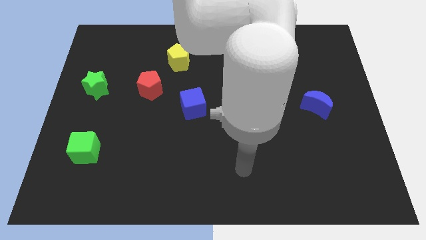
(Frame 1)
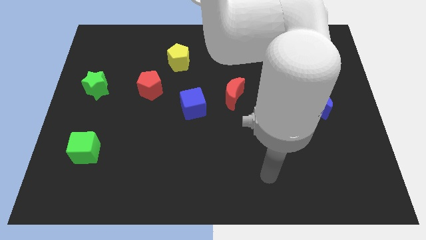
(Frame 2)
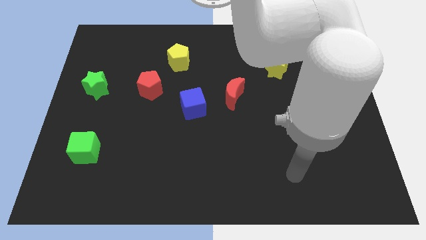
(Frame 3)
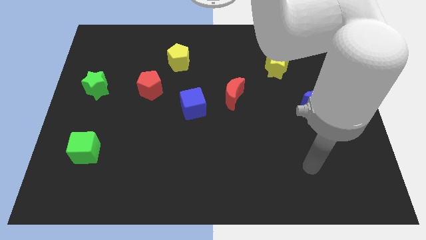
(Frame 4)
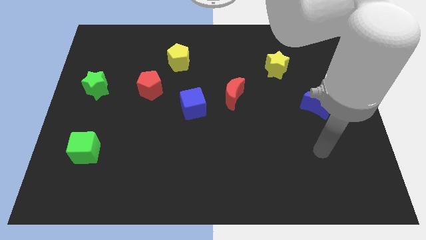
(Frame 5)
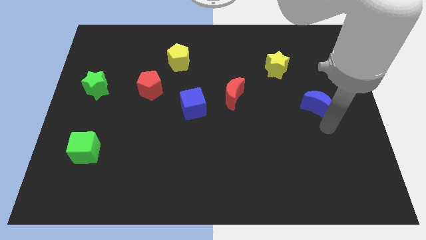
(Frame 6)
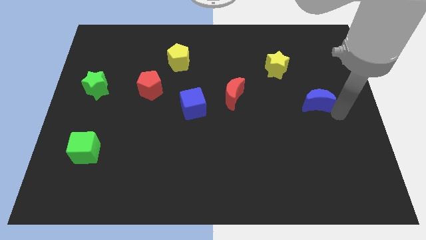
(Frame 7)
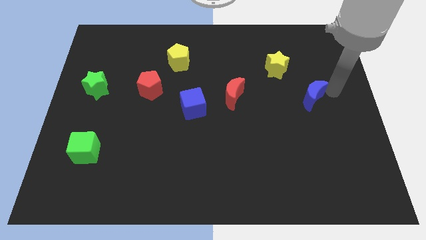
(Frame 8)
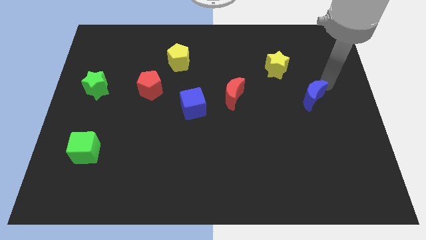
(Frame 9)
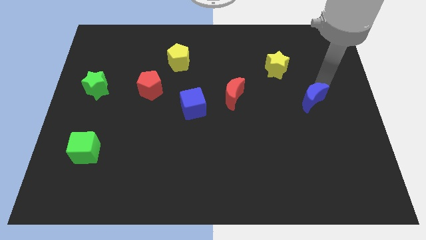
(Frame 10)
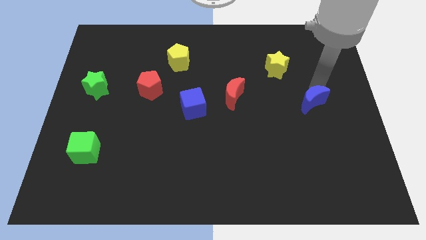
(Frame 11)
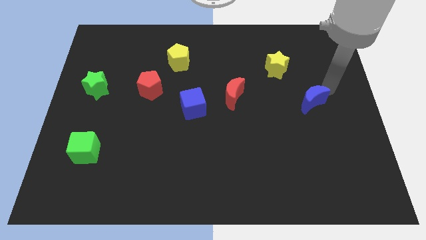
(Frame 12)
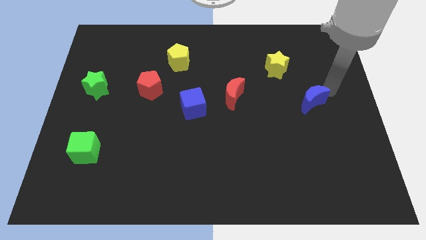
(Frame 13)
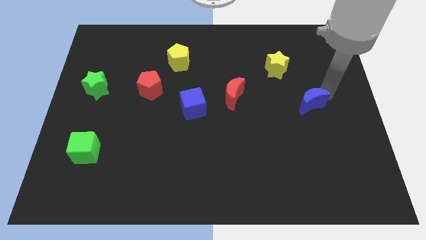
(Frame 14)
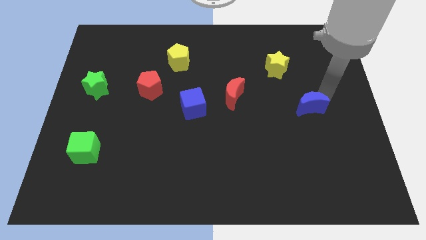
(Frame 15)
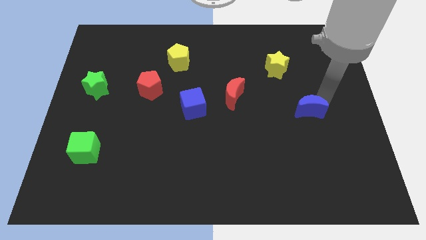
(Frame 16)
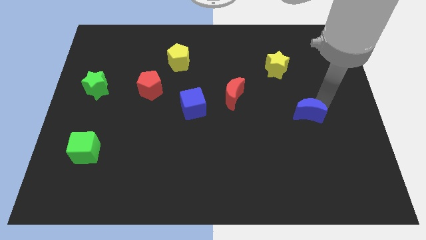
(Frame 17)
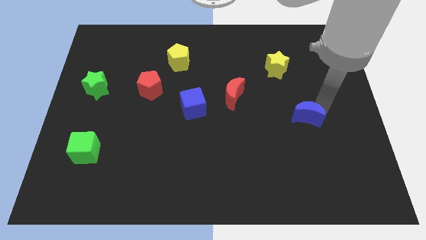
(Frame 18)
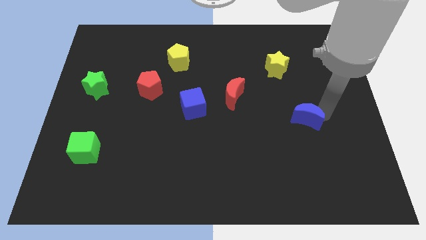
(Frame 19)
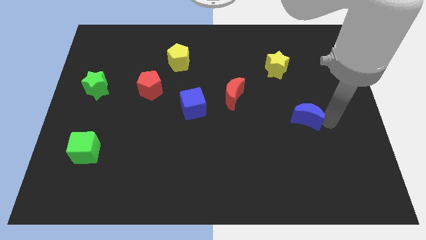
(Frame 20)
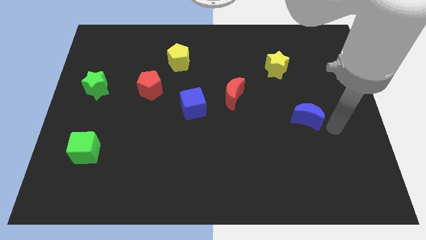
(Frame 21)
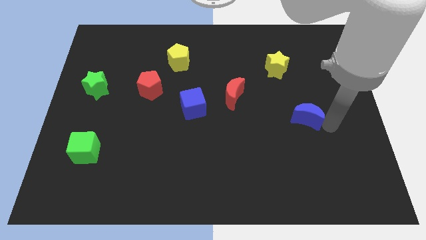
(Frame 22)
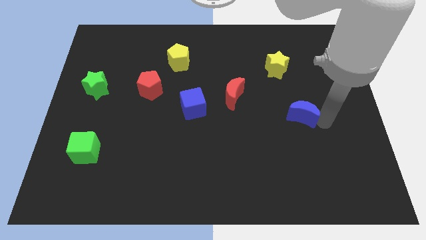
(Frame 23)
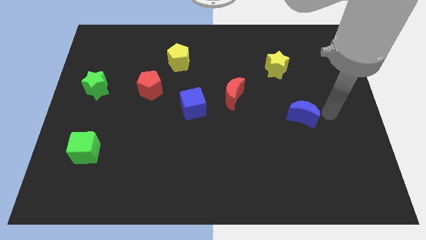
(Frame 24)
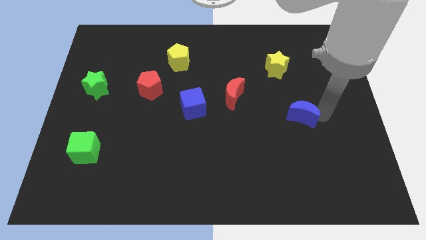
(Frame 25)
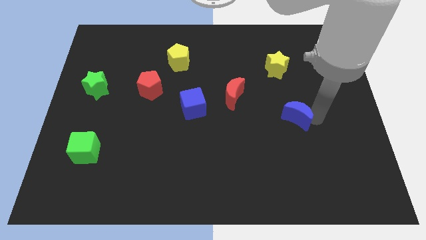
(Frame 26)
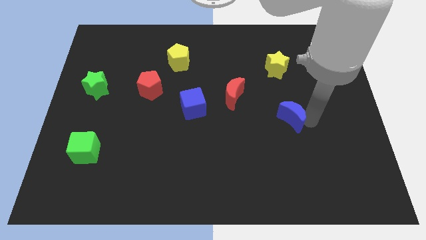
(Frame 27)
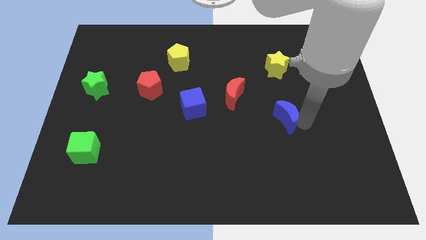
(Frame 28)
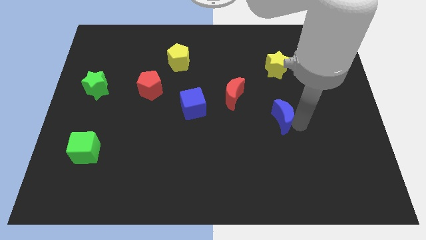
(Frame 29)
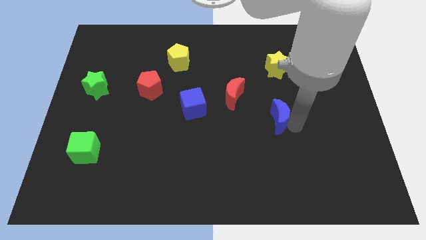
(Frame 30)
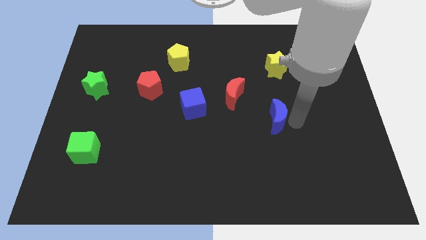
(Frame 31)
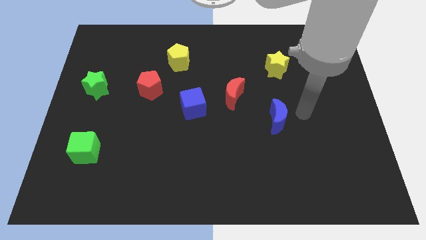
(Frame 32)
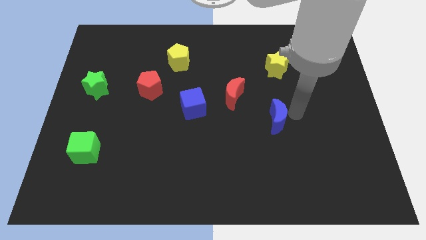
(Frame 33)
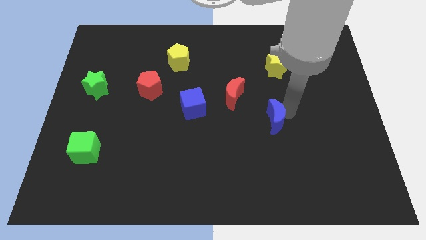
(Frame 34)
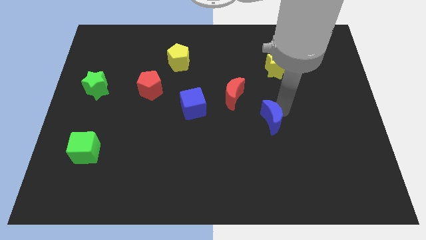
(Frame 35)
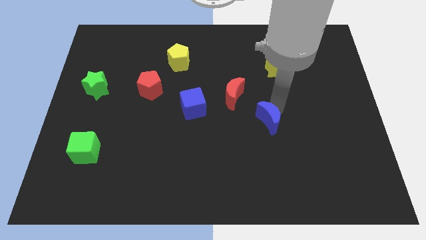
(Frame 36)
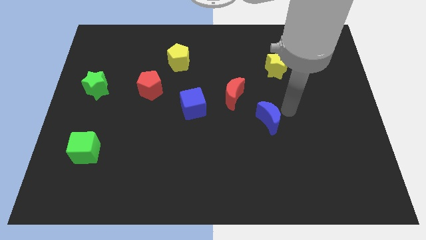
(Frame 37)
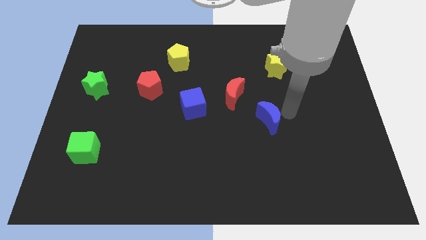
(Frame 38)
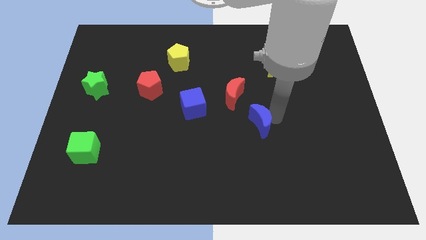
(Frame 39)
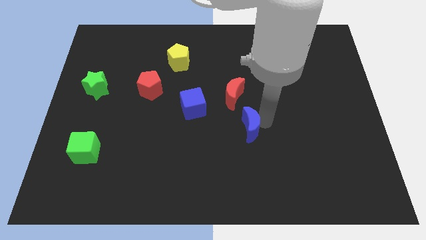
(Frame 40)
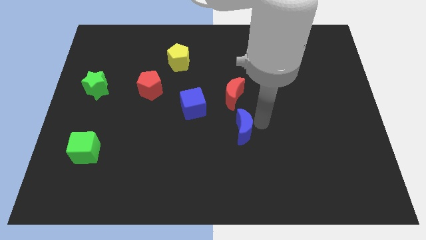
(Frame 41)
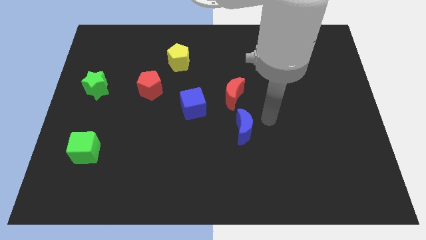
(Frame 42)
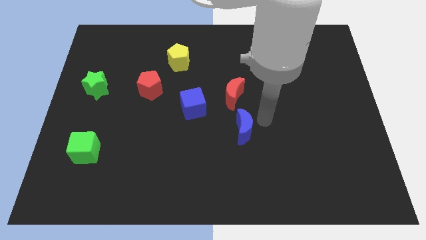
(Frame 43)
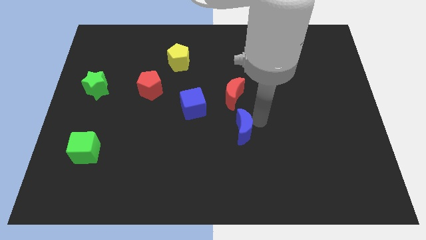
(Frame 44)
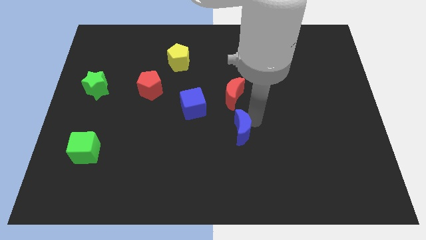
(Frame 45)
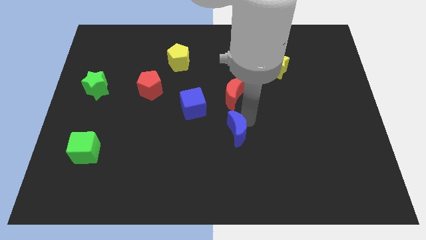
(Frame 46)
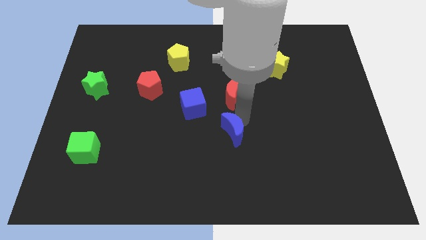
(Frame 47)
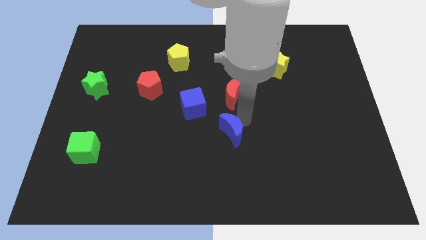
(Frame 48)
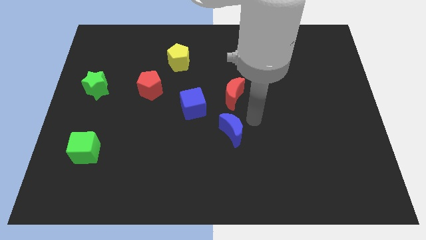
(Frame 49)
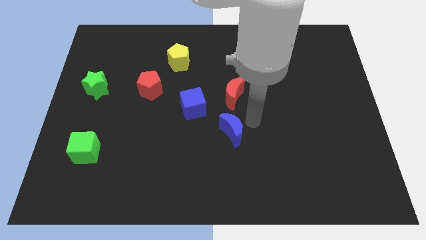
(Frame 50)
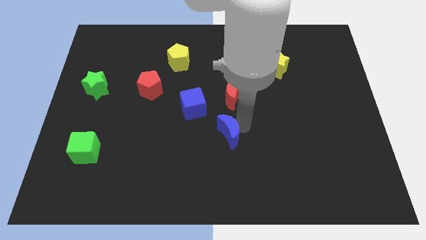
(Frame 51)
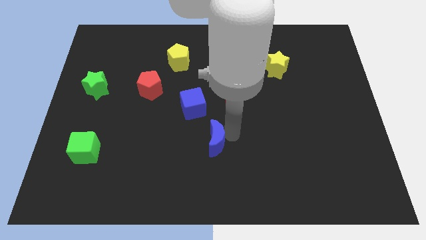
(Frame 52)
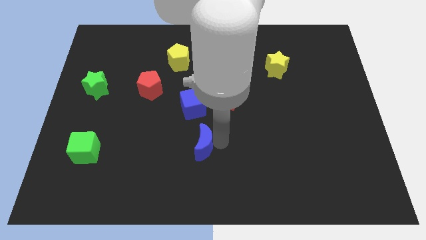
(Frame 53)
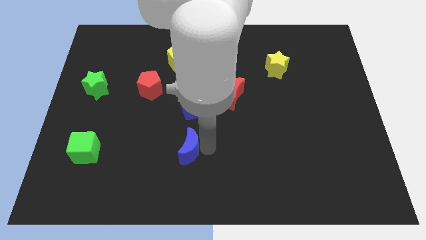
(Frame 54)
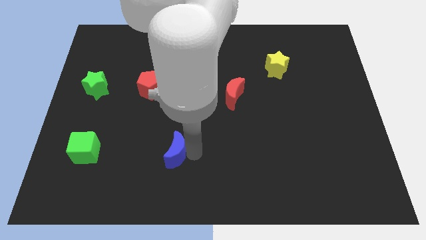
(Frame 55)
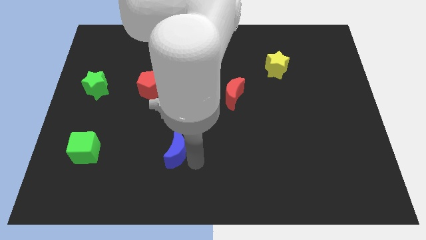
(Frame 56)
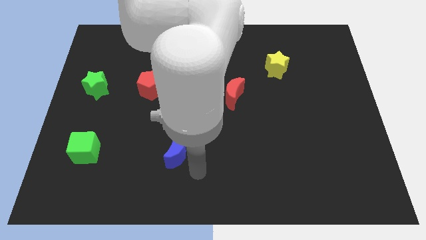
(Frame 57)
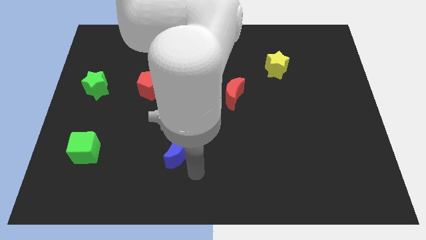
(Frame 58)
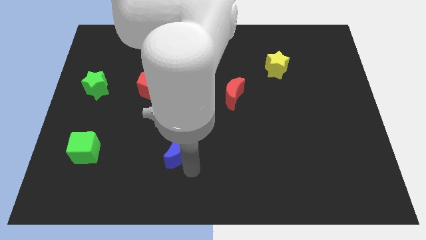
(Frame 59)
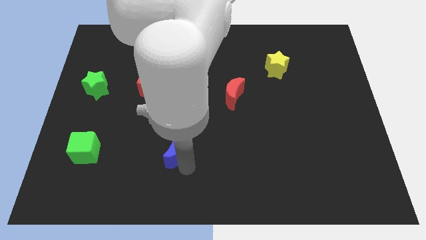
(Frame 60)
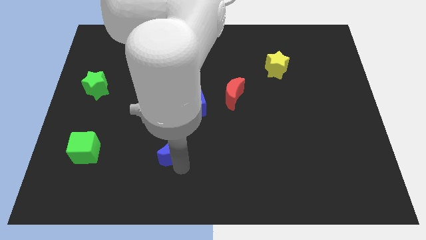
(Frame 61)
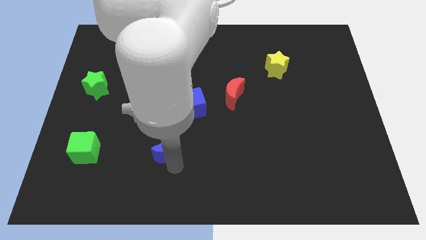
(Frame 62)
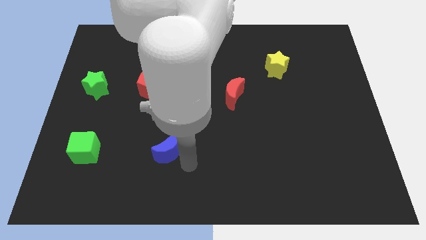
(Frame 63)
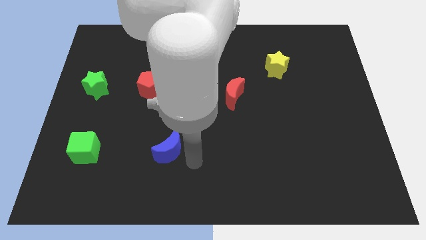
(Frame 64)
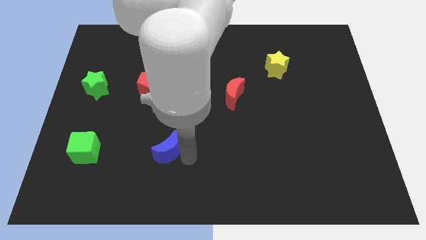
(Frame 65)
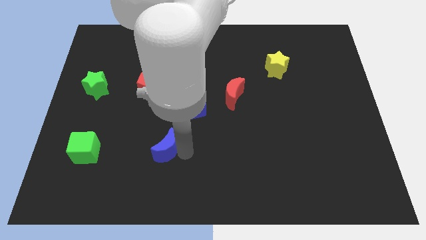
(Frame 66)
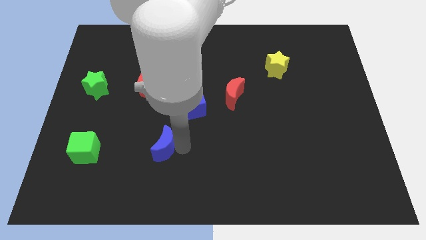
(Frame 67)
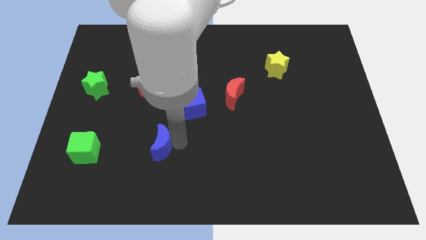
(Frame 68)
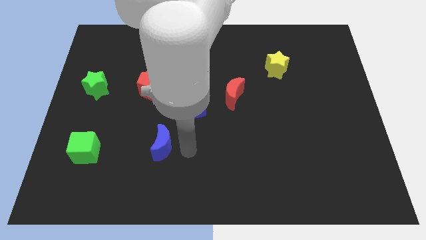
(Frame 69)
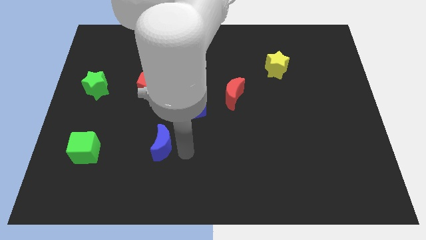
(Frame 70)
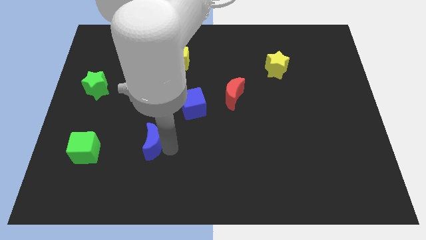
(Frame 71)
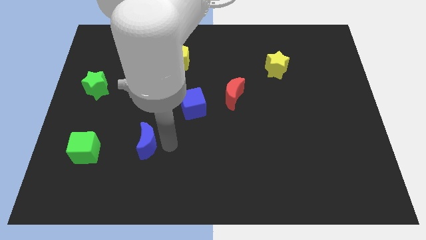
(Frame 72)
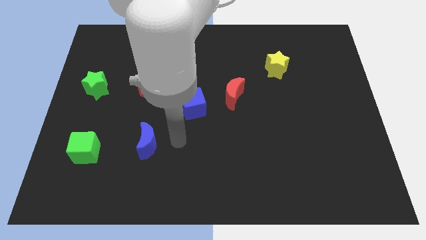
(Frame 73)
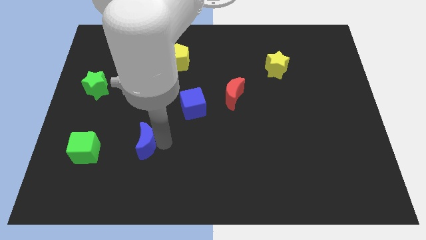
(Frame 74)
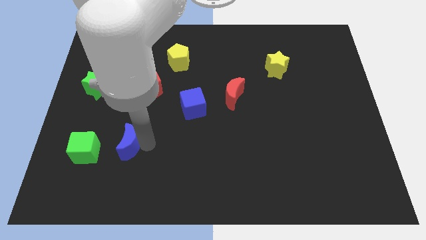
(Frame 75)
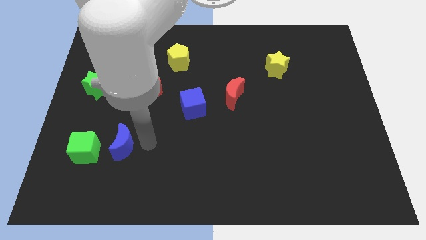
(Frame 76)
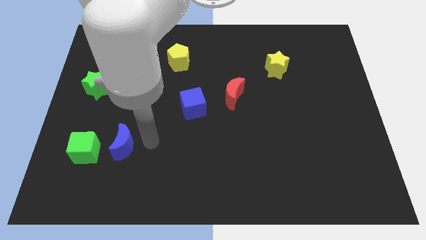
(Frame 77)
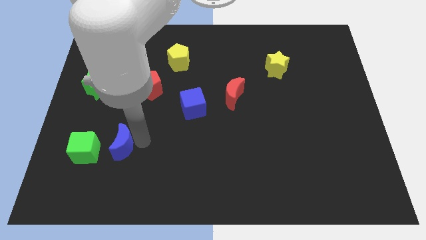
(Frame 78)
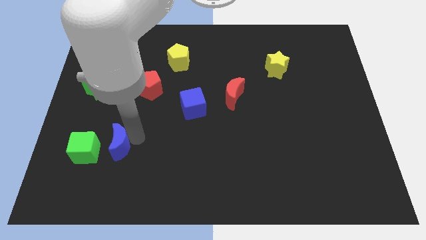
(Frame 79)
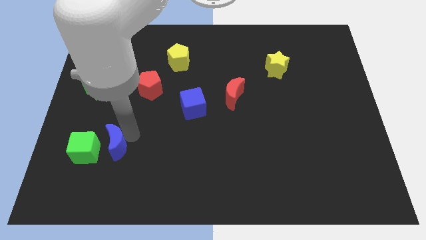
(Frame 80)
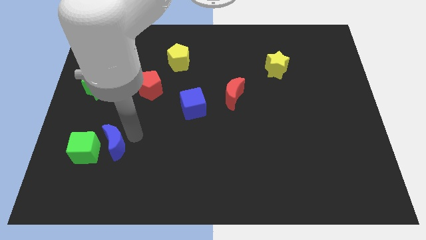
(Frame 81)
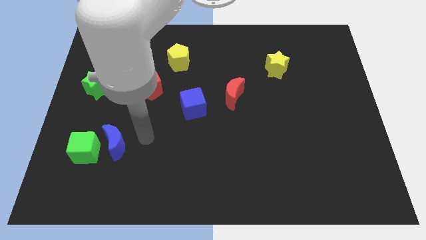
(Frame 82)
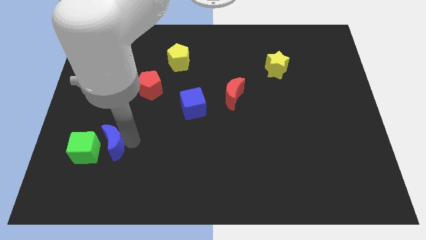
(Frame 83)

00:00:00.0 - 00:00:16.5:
slide the blue moon to the green cube
